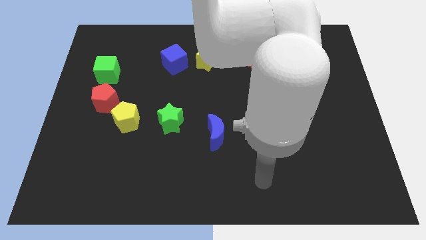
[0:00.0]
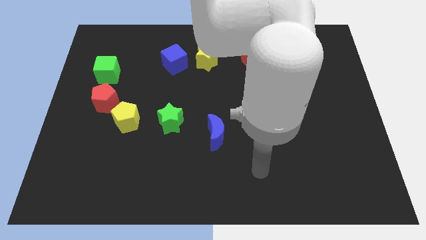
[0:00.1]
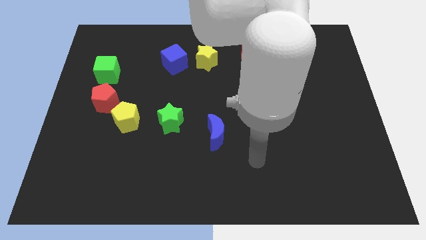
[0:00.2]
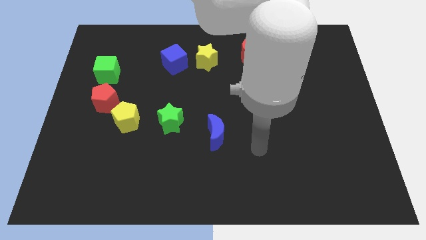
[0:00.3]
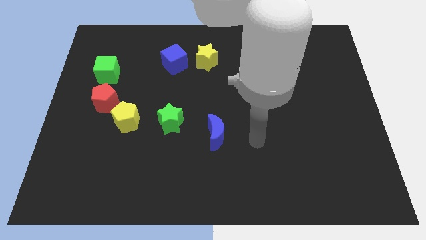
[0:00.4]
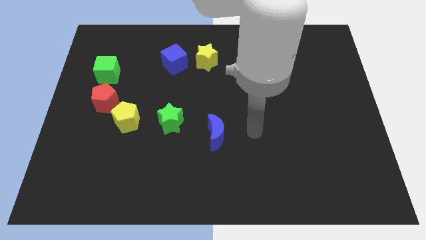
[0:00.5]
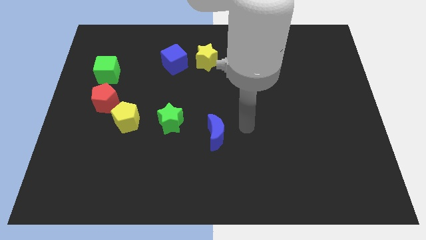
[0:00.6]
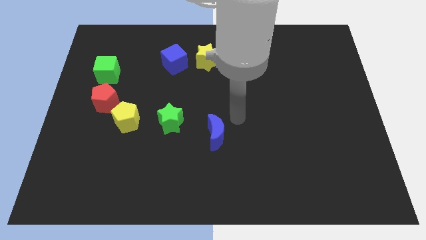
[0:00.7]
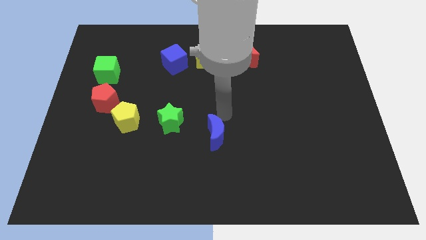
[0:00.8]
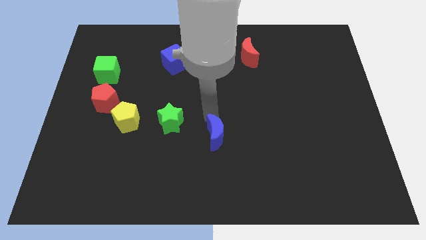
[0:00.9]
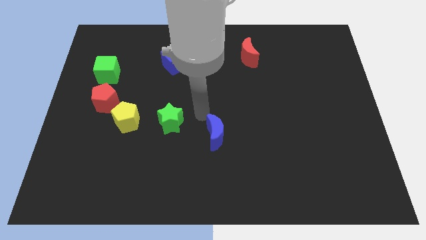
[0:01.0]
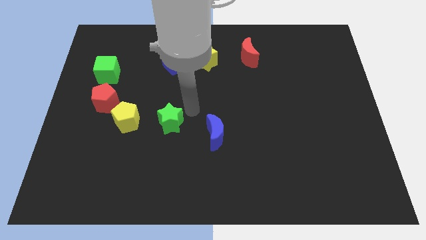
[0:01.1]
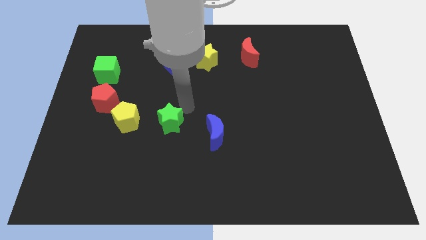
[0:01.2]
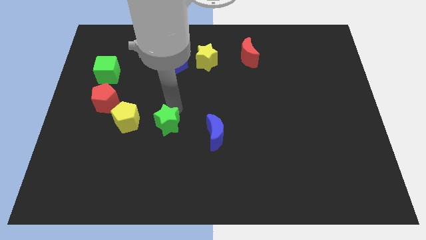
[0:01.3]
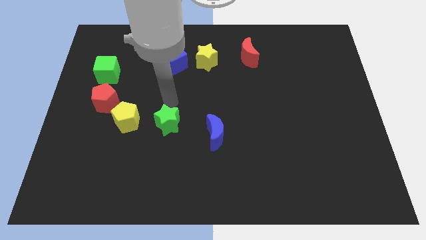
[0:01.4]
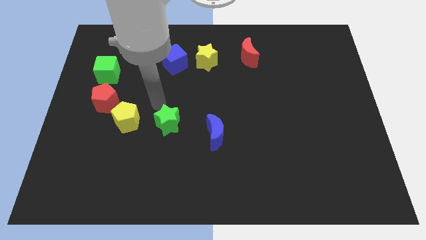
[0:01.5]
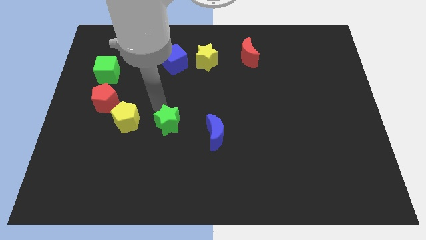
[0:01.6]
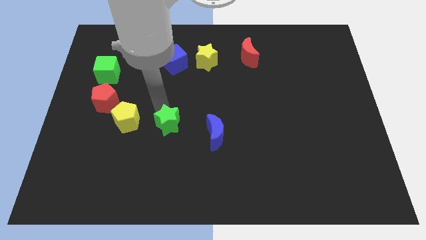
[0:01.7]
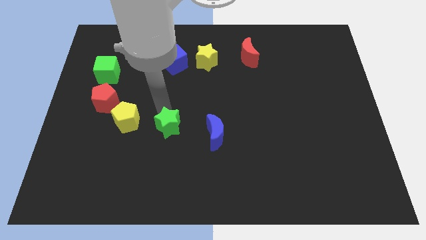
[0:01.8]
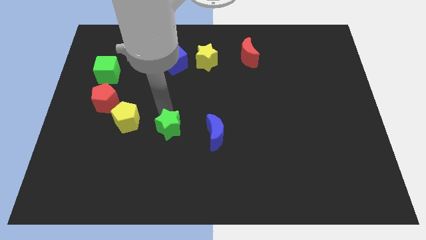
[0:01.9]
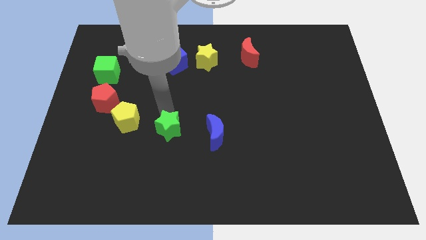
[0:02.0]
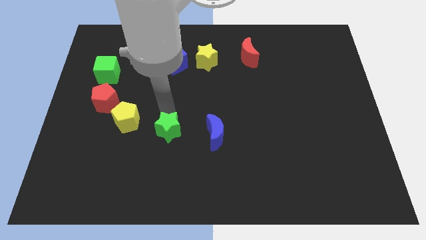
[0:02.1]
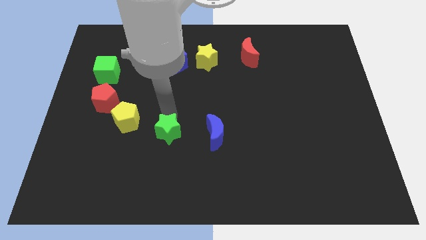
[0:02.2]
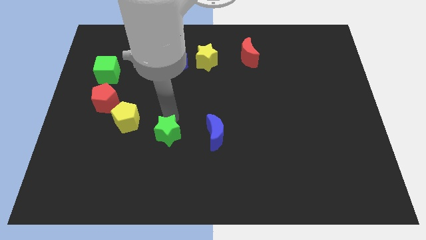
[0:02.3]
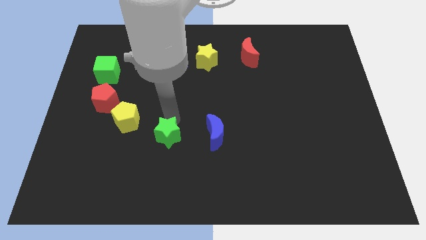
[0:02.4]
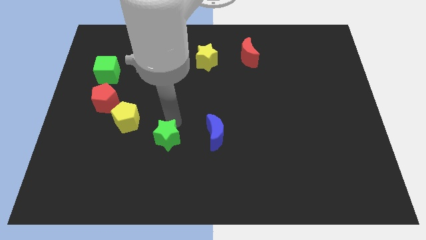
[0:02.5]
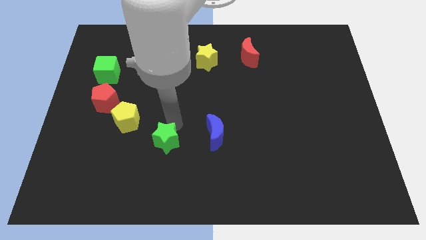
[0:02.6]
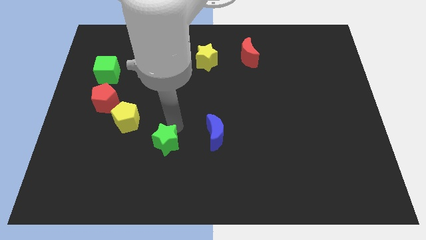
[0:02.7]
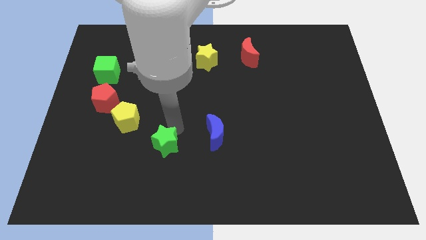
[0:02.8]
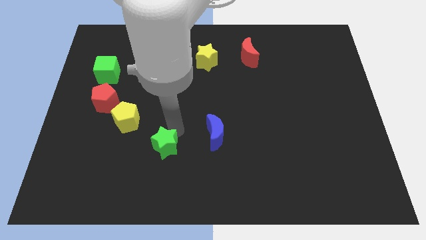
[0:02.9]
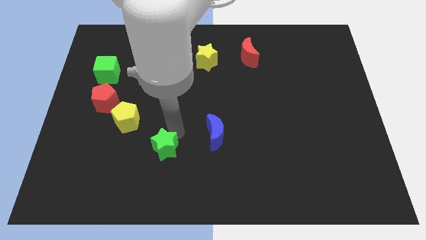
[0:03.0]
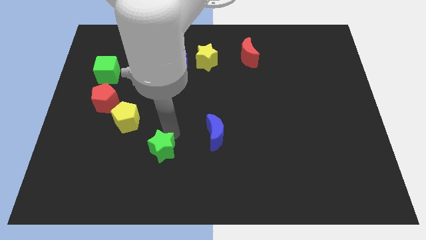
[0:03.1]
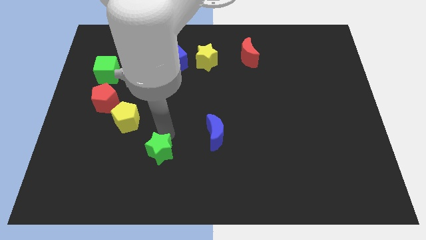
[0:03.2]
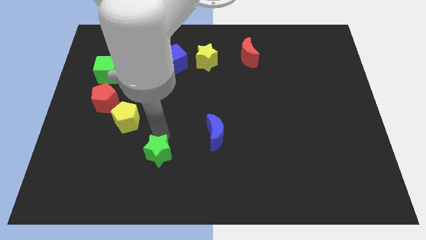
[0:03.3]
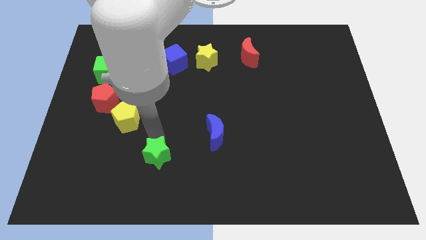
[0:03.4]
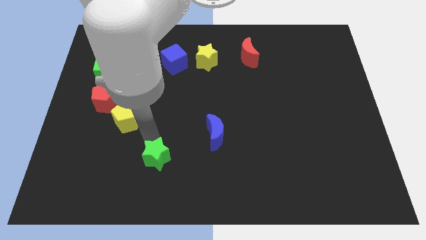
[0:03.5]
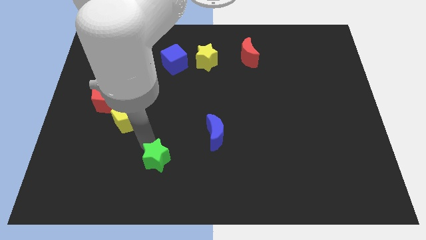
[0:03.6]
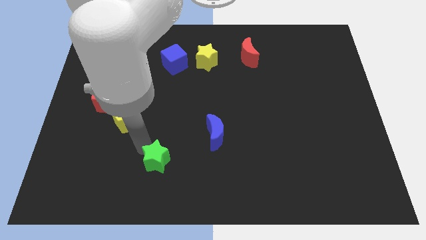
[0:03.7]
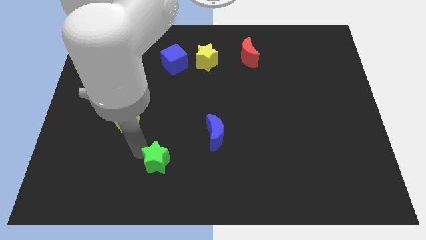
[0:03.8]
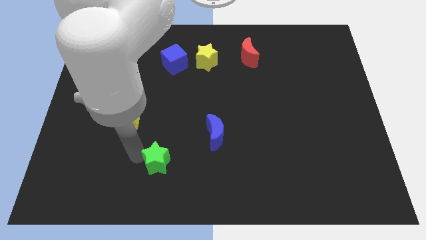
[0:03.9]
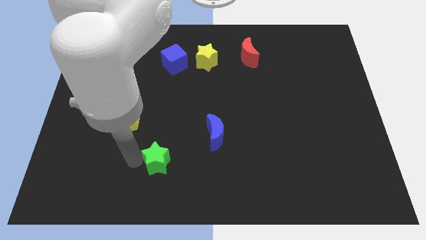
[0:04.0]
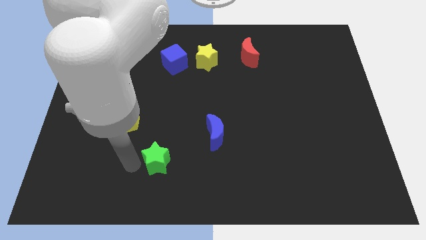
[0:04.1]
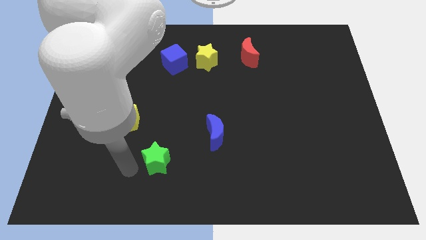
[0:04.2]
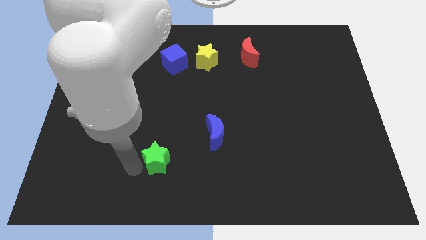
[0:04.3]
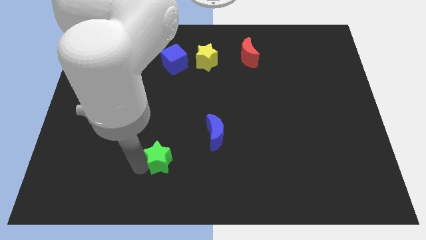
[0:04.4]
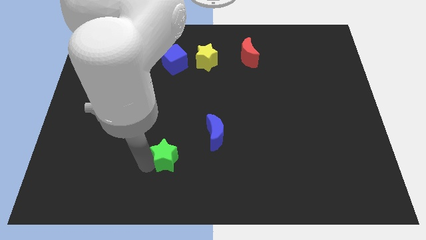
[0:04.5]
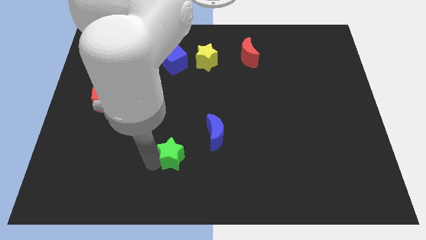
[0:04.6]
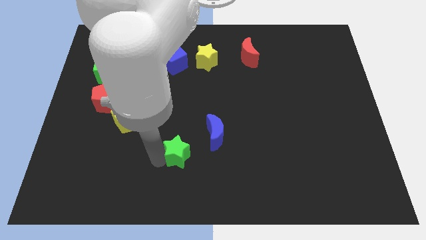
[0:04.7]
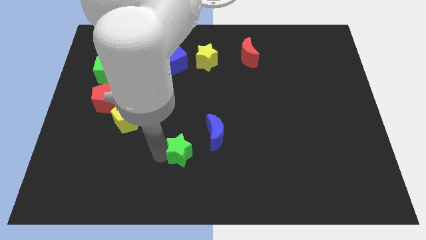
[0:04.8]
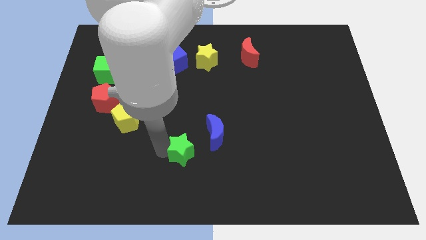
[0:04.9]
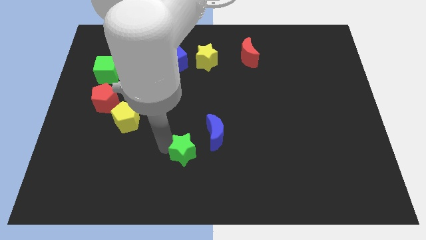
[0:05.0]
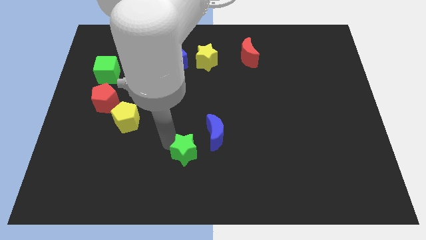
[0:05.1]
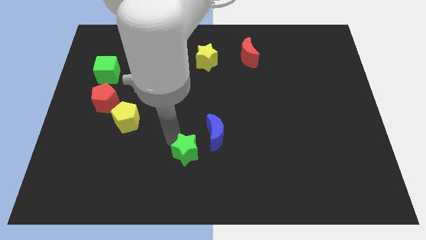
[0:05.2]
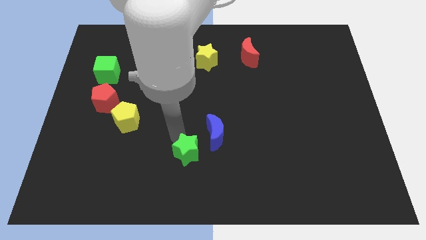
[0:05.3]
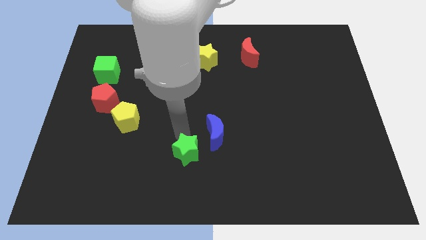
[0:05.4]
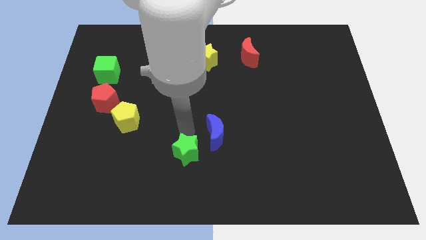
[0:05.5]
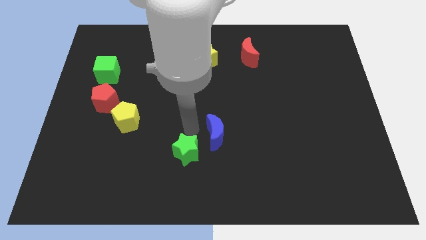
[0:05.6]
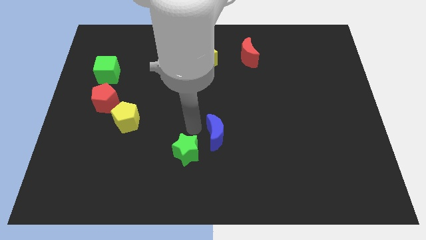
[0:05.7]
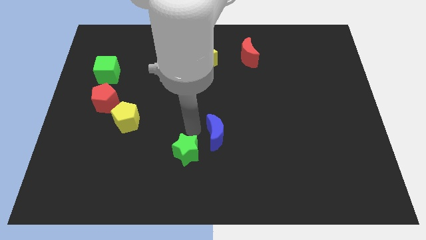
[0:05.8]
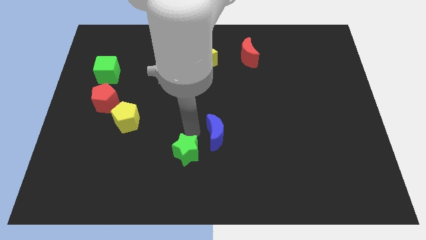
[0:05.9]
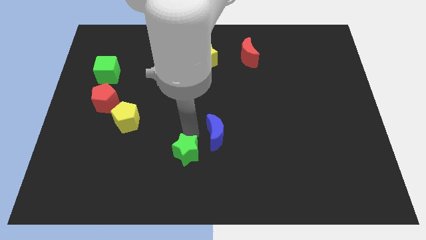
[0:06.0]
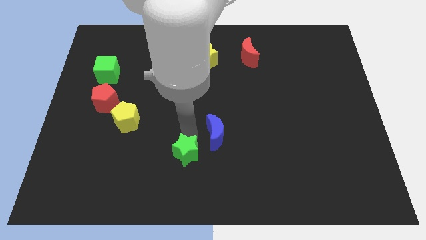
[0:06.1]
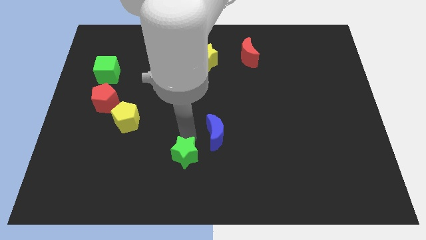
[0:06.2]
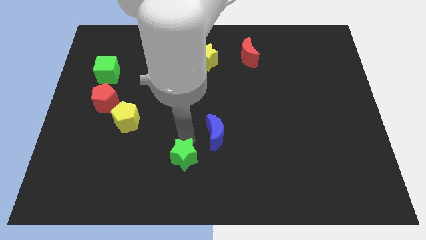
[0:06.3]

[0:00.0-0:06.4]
push the green star to the bottom
